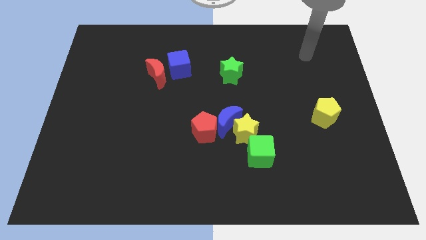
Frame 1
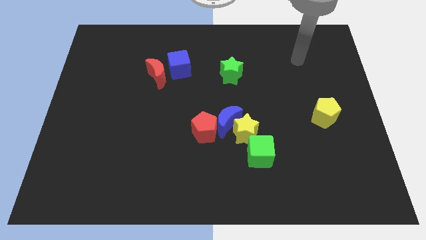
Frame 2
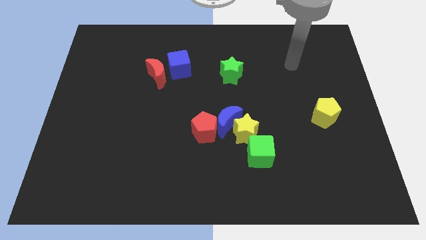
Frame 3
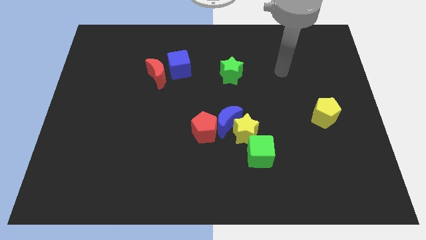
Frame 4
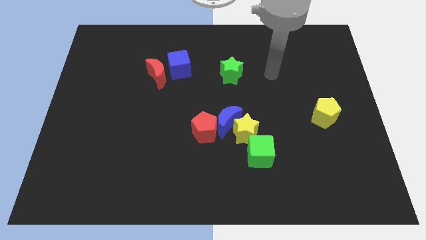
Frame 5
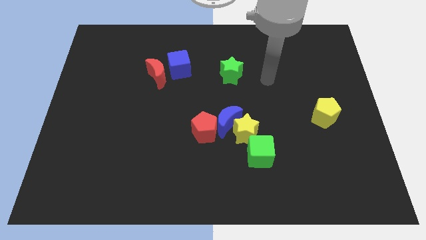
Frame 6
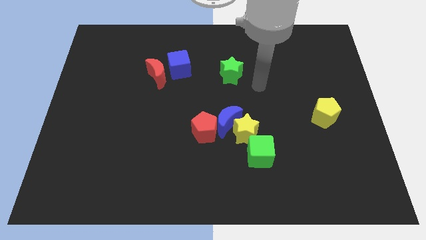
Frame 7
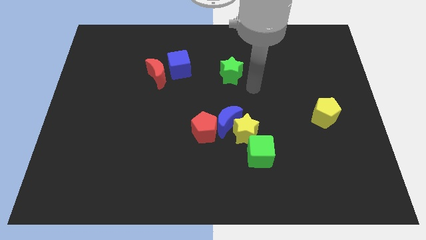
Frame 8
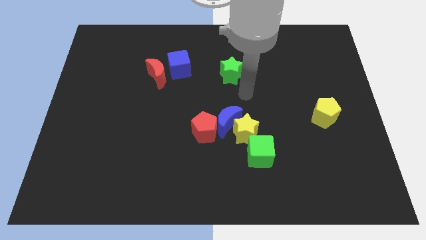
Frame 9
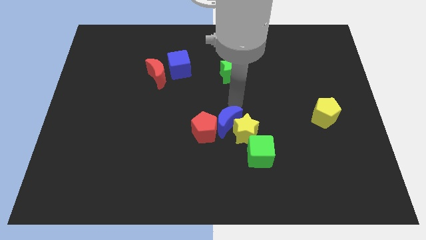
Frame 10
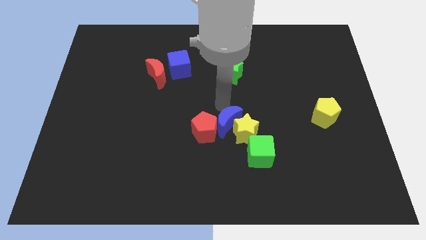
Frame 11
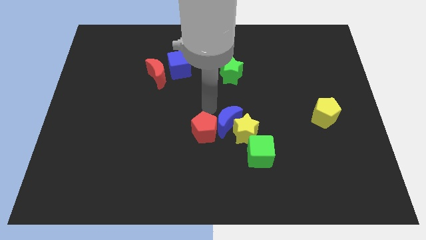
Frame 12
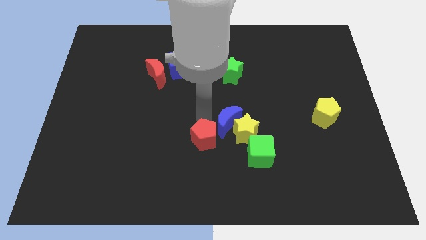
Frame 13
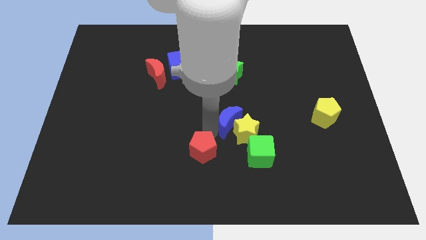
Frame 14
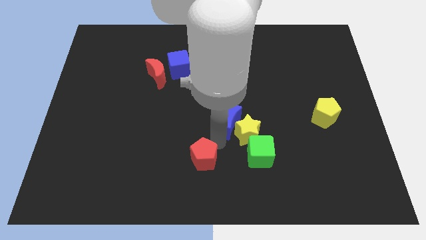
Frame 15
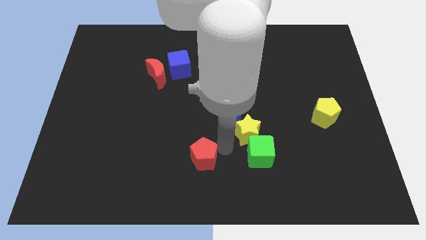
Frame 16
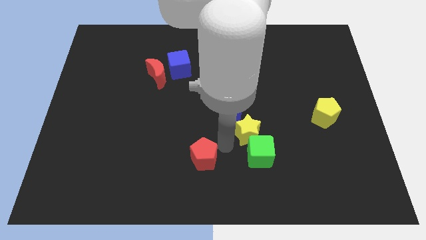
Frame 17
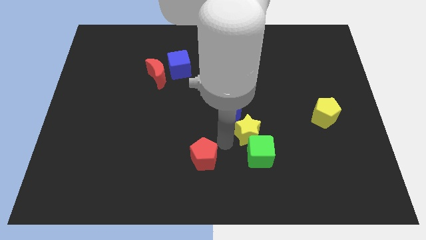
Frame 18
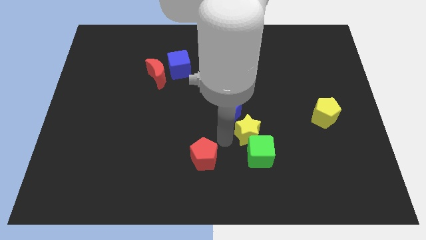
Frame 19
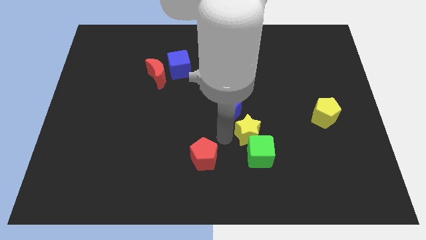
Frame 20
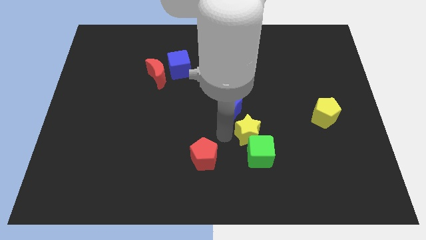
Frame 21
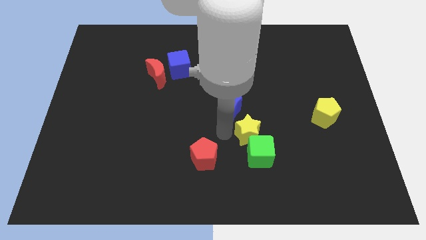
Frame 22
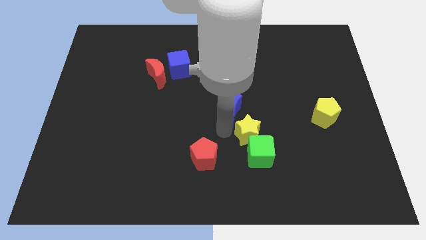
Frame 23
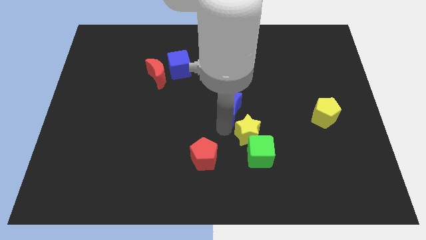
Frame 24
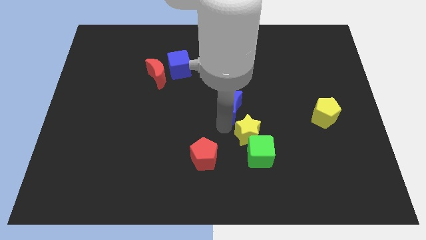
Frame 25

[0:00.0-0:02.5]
move the blue moon away from the yellow star and red pentagon

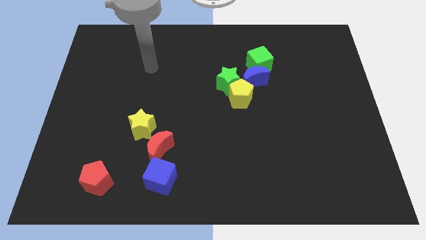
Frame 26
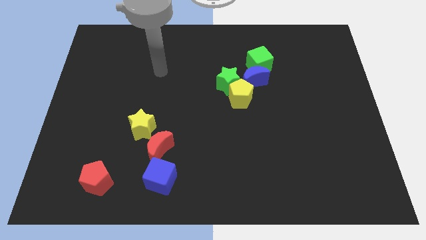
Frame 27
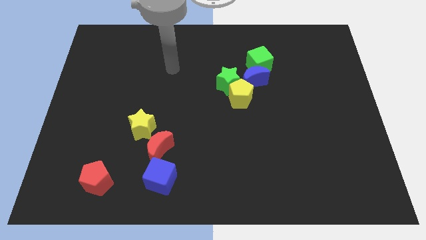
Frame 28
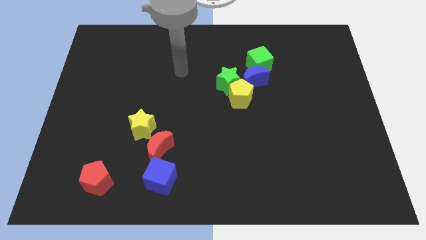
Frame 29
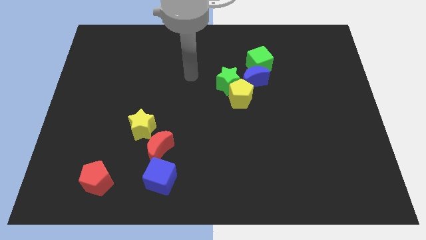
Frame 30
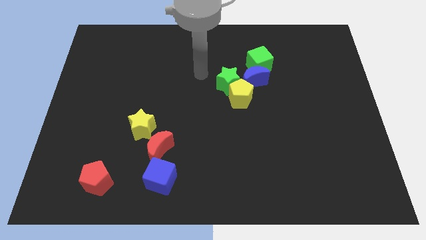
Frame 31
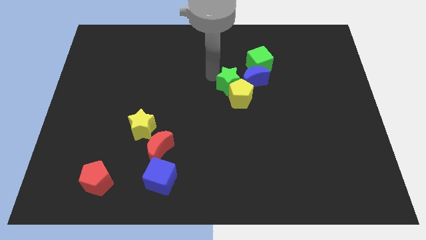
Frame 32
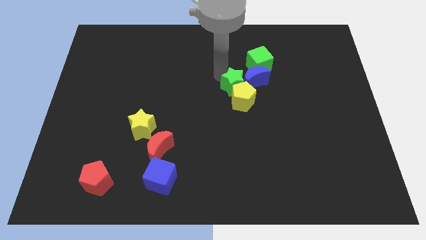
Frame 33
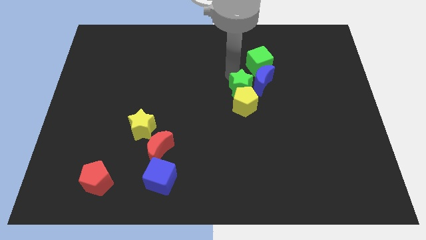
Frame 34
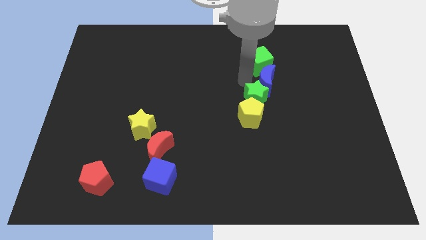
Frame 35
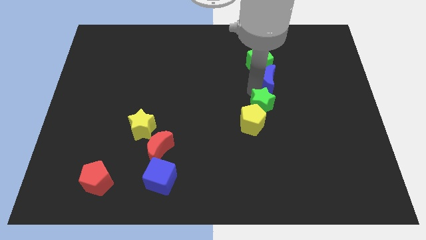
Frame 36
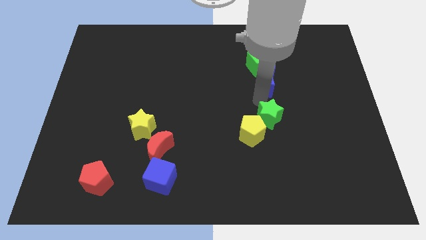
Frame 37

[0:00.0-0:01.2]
separate the yellow pentagon from the green star and blue moon

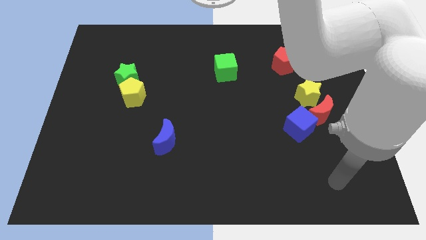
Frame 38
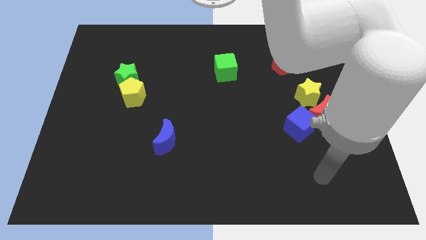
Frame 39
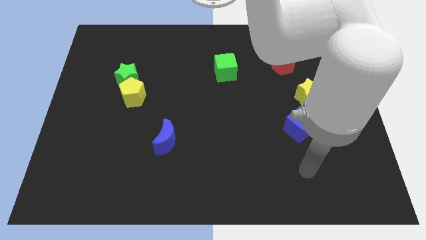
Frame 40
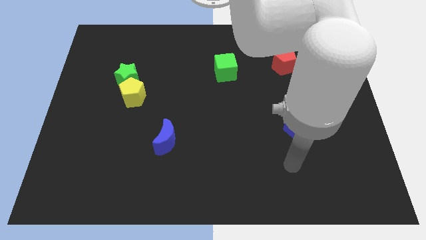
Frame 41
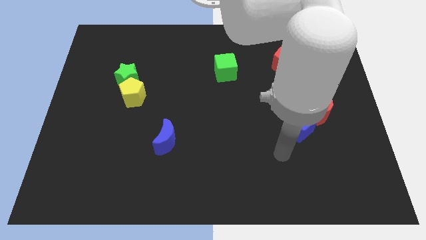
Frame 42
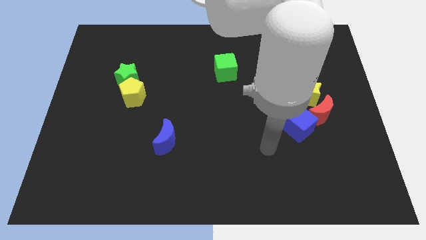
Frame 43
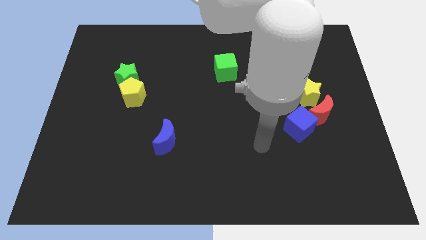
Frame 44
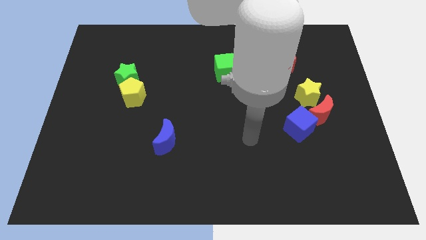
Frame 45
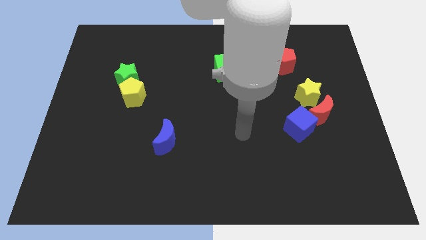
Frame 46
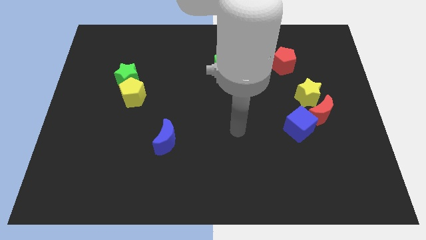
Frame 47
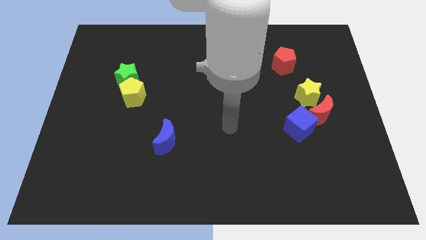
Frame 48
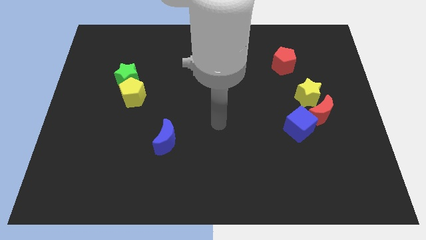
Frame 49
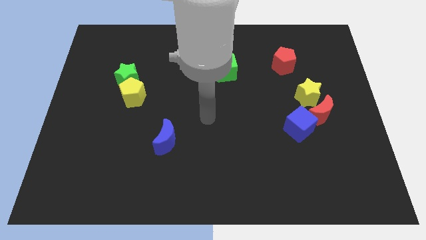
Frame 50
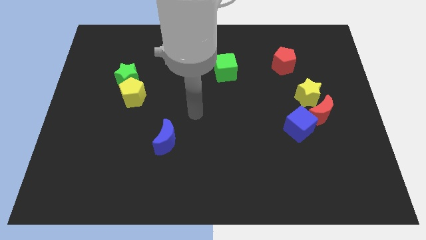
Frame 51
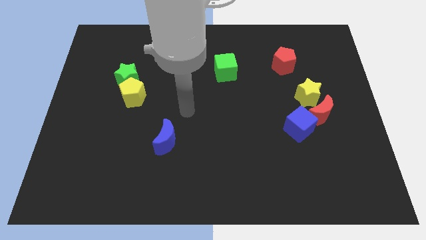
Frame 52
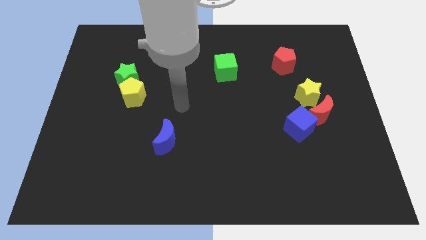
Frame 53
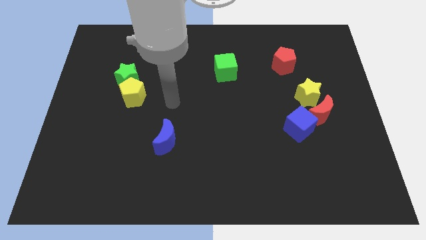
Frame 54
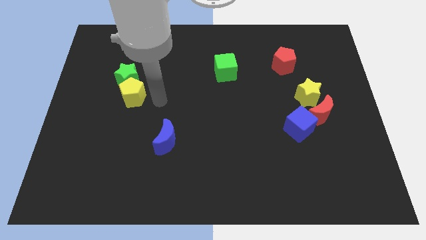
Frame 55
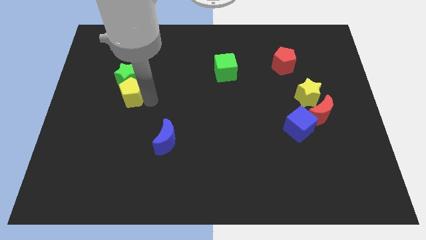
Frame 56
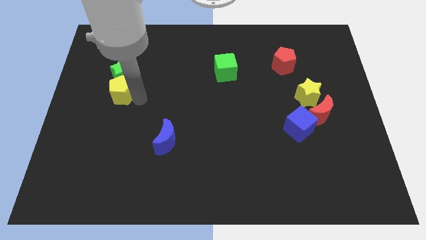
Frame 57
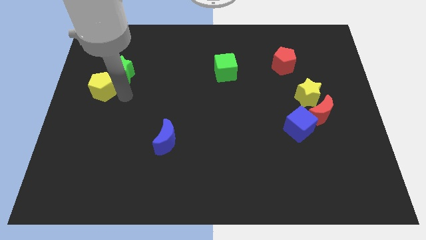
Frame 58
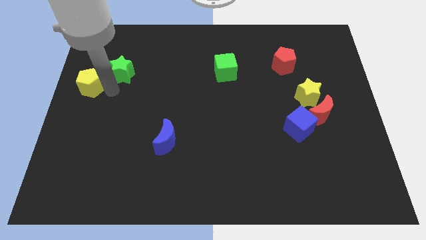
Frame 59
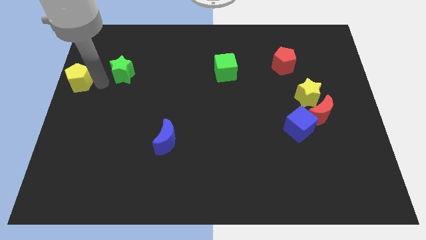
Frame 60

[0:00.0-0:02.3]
separate the green star from the yellow pentagon

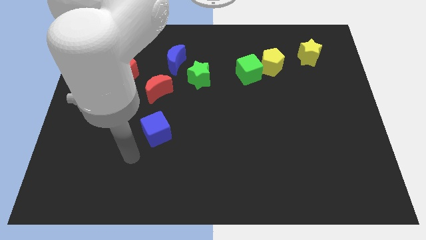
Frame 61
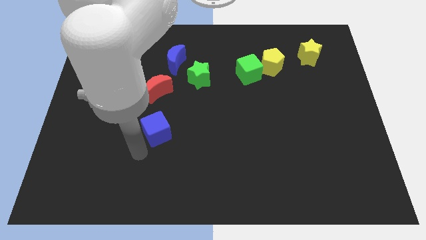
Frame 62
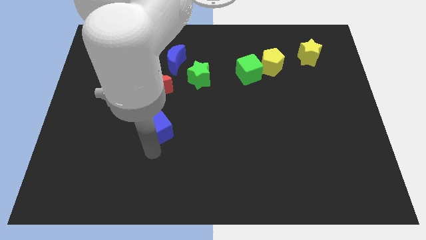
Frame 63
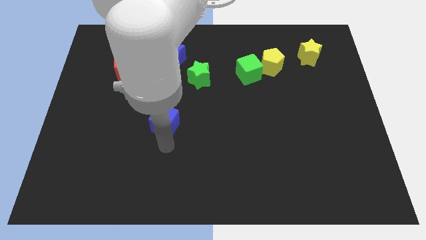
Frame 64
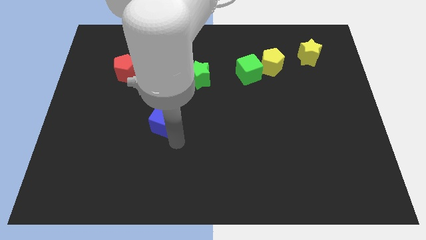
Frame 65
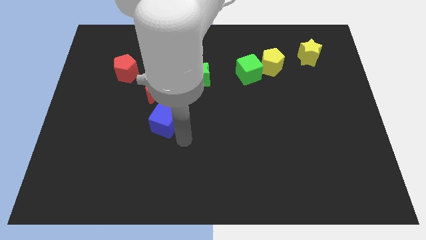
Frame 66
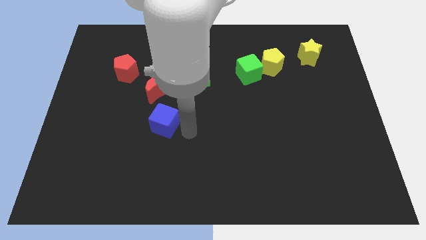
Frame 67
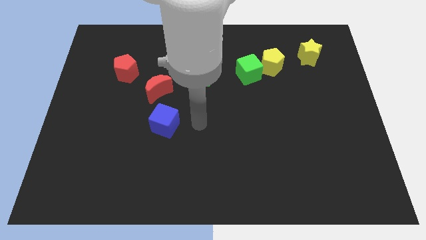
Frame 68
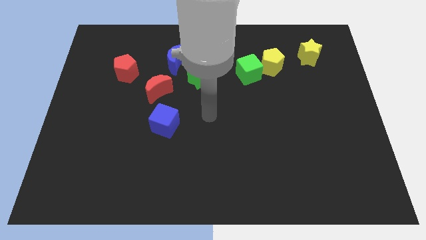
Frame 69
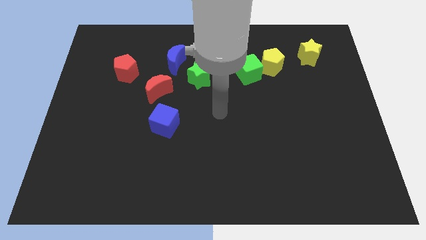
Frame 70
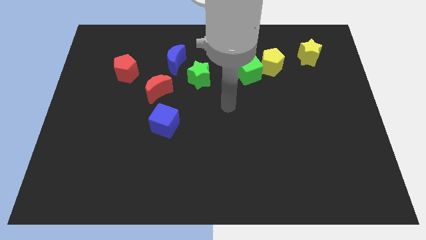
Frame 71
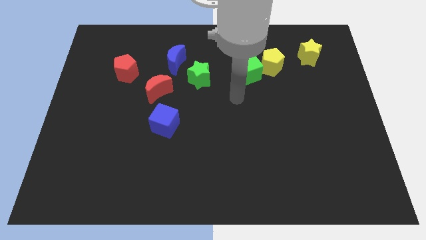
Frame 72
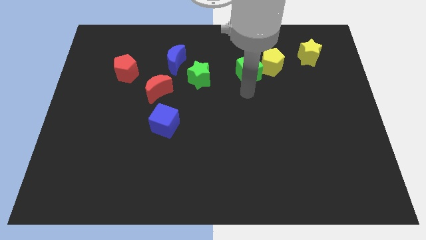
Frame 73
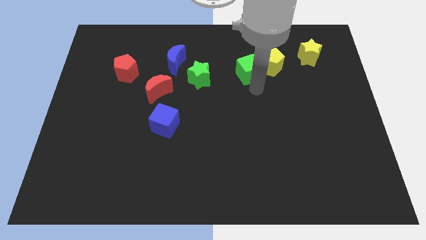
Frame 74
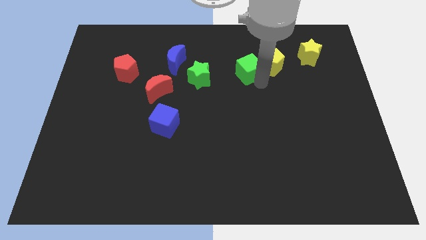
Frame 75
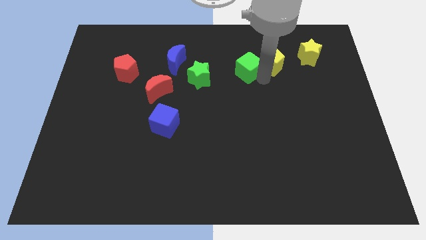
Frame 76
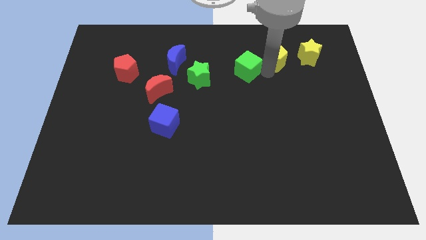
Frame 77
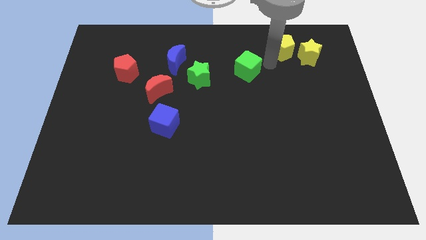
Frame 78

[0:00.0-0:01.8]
pull the green cube apart from the yellow pentagon

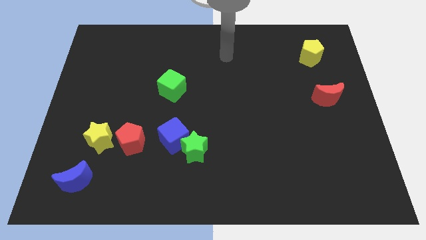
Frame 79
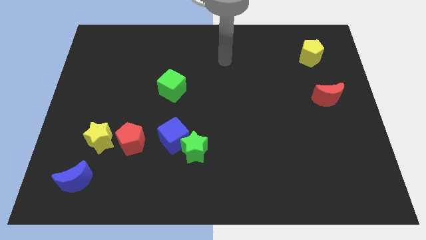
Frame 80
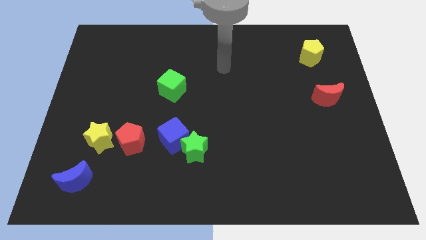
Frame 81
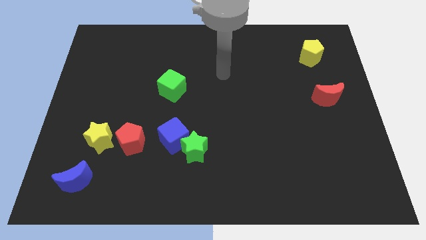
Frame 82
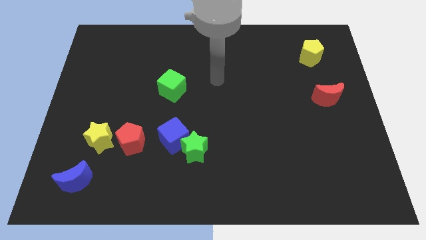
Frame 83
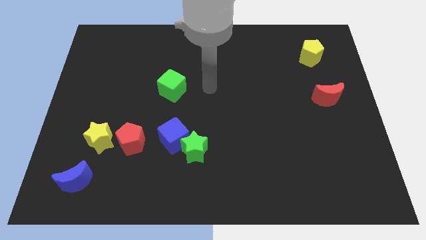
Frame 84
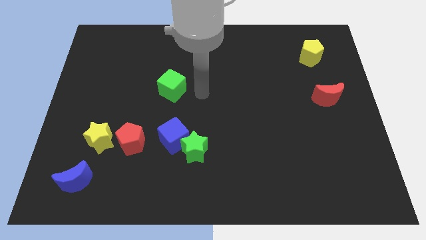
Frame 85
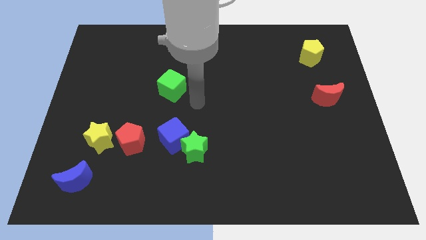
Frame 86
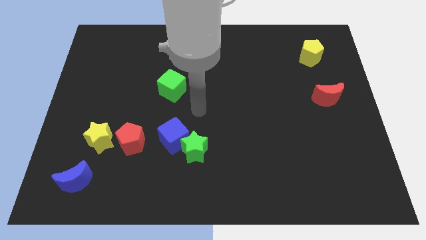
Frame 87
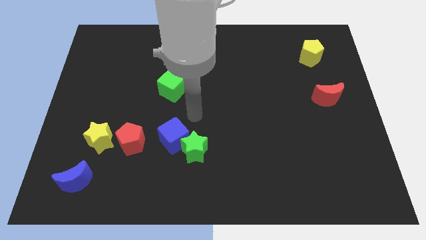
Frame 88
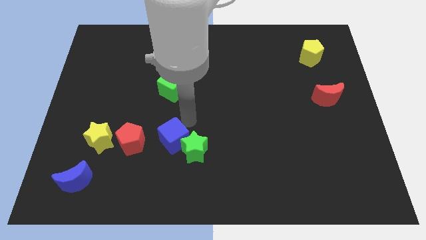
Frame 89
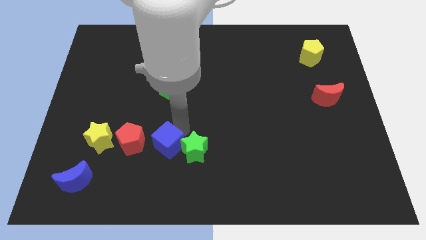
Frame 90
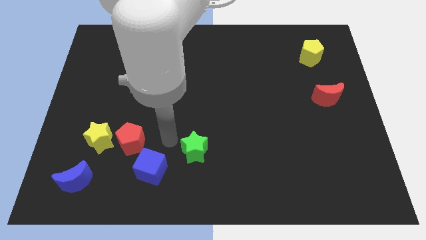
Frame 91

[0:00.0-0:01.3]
separate the green star from the blue cube

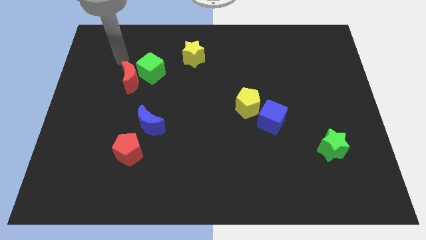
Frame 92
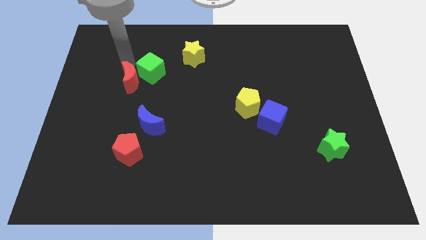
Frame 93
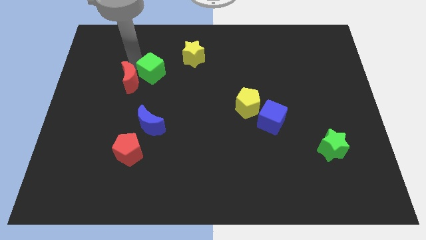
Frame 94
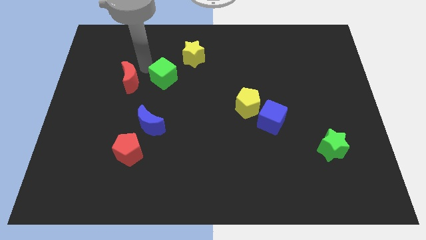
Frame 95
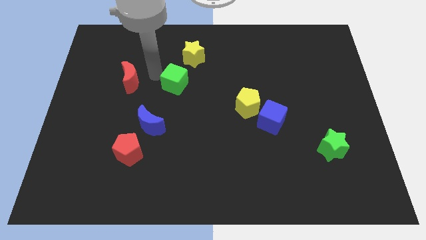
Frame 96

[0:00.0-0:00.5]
move the red moon away from the green cube
